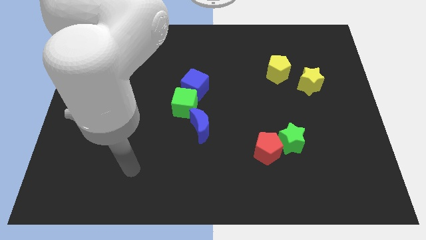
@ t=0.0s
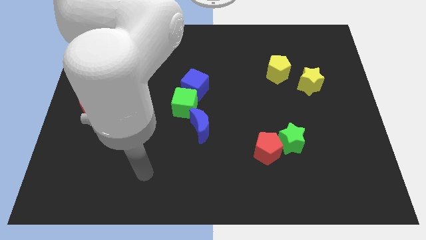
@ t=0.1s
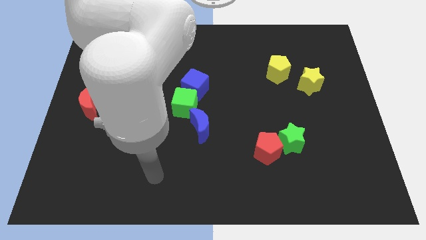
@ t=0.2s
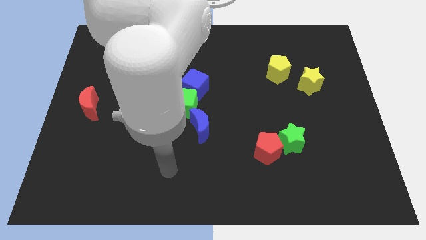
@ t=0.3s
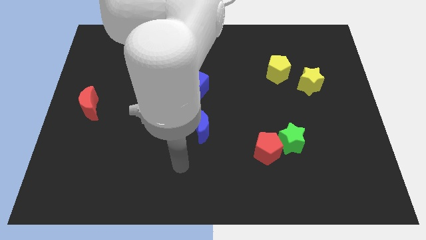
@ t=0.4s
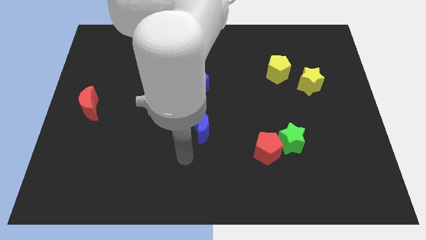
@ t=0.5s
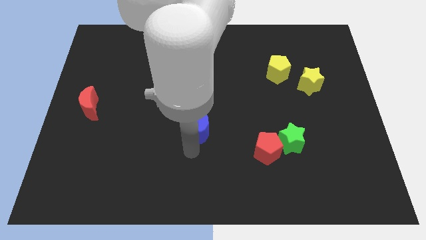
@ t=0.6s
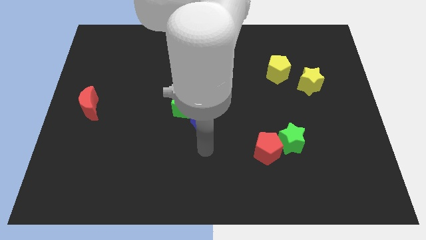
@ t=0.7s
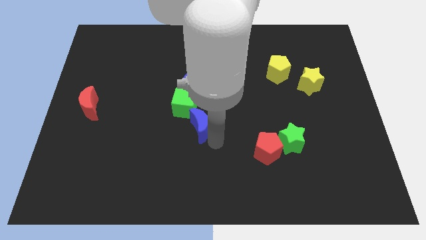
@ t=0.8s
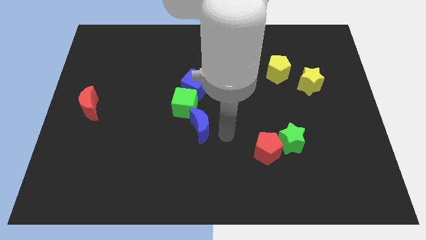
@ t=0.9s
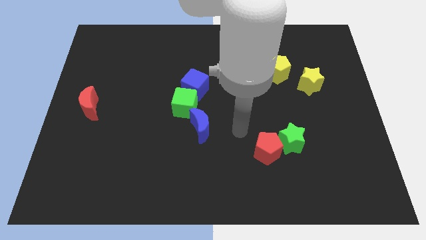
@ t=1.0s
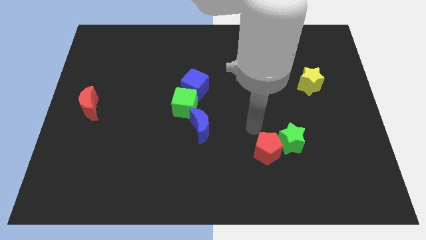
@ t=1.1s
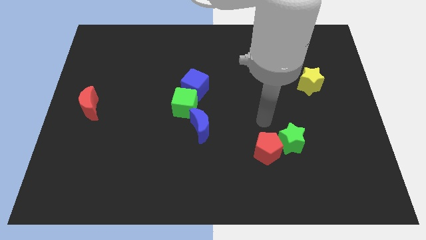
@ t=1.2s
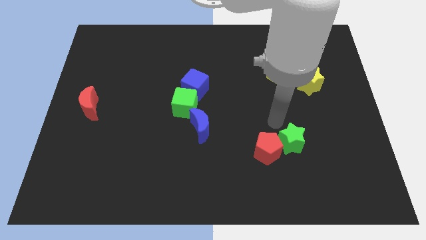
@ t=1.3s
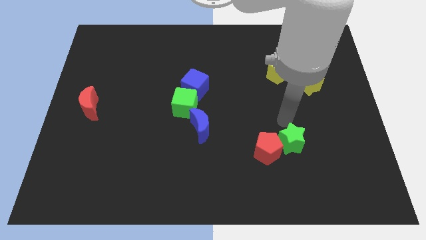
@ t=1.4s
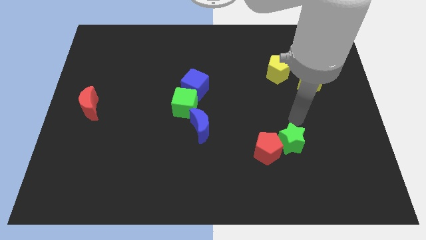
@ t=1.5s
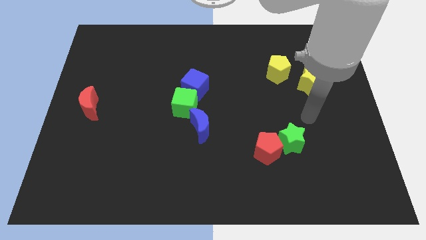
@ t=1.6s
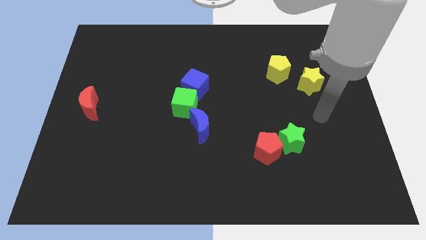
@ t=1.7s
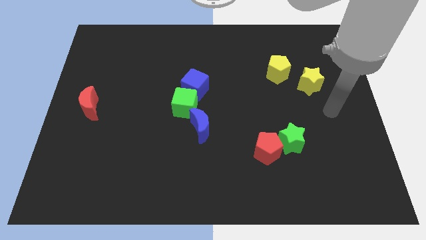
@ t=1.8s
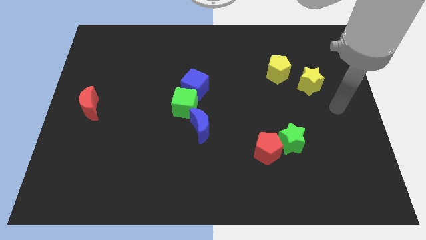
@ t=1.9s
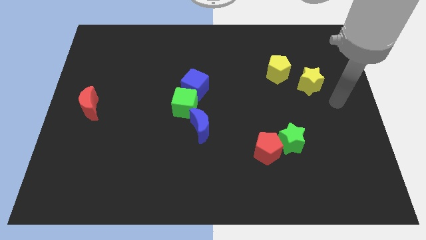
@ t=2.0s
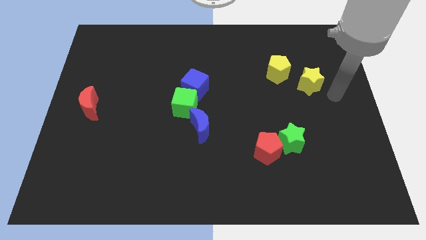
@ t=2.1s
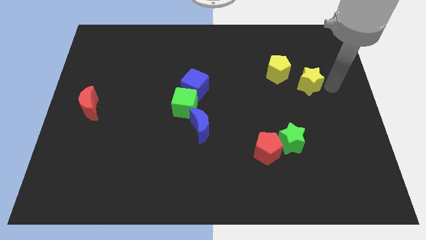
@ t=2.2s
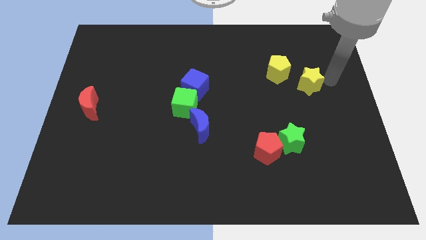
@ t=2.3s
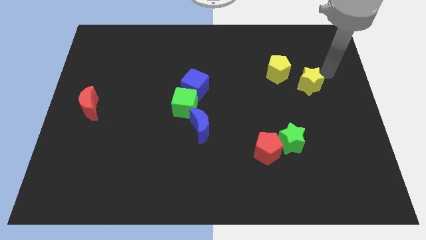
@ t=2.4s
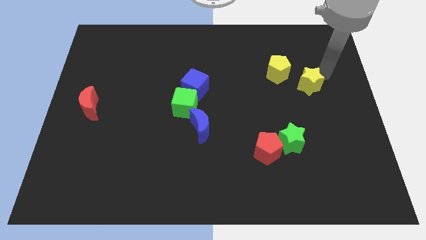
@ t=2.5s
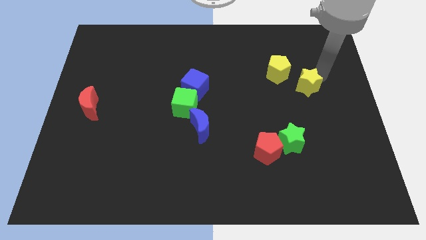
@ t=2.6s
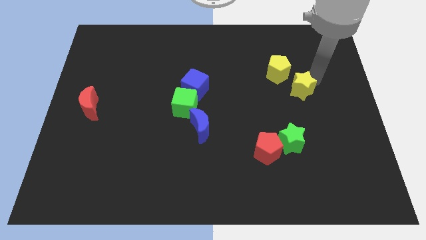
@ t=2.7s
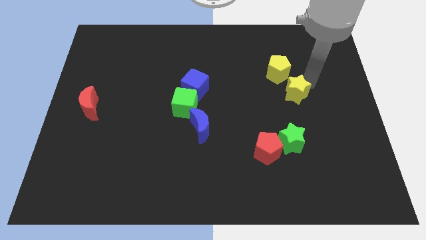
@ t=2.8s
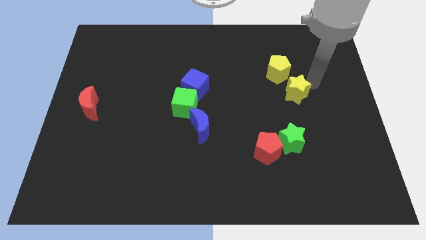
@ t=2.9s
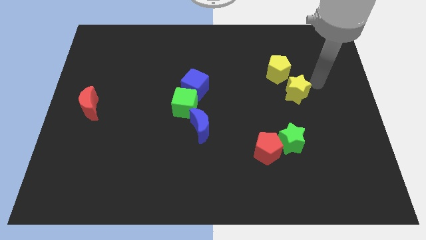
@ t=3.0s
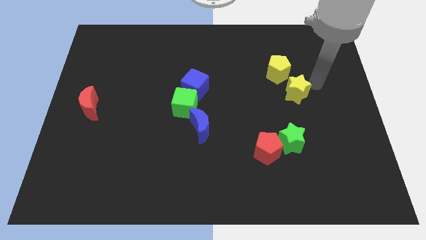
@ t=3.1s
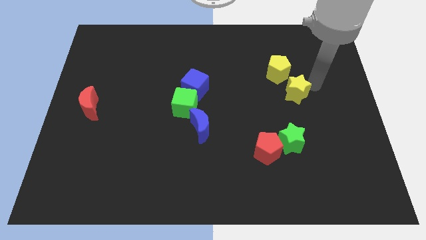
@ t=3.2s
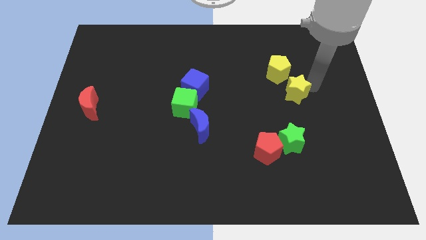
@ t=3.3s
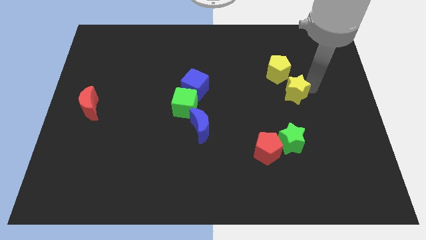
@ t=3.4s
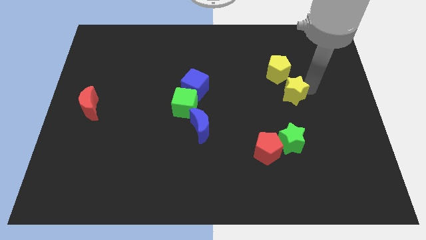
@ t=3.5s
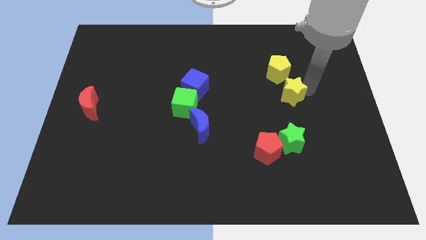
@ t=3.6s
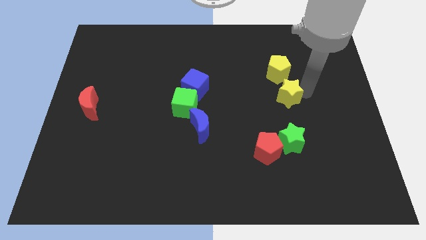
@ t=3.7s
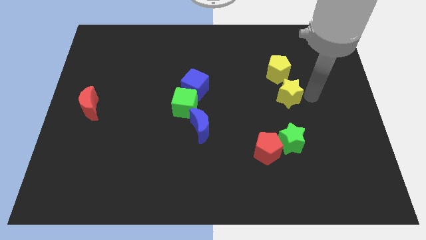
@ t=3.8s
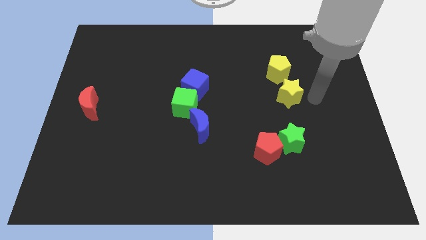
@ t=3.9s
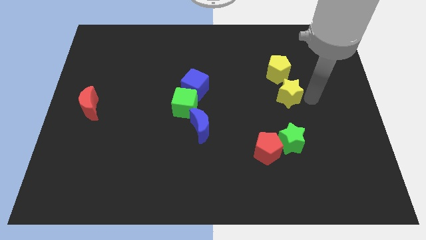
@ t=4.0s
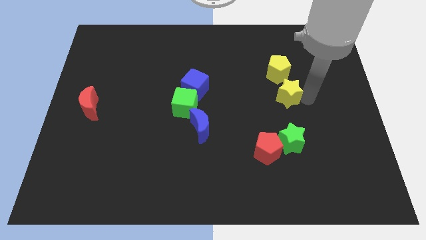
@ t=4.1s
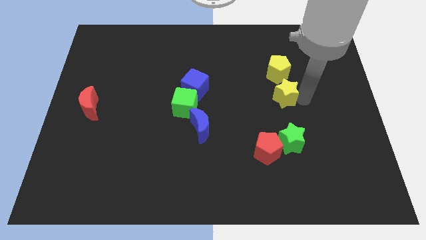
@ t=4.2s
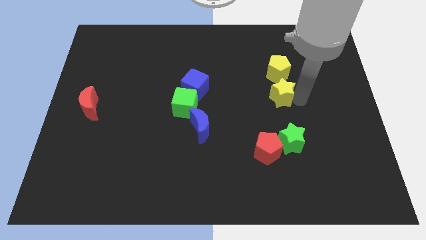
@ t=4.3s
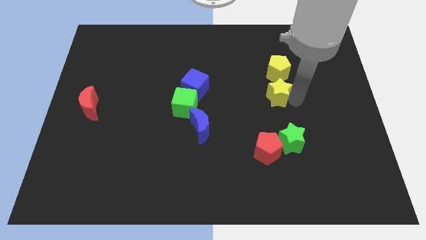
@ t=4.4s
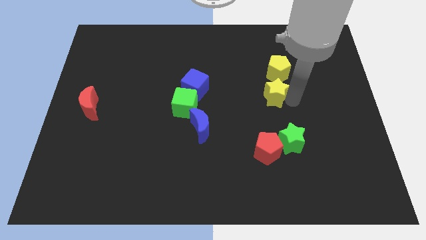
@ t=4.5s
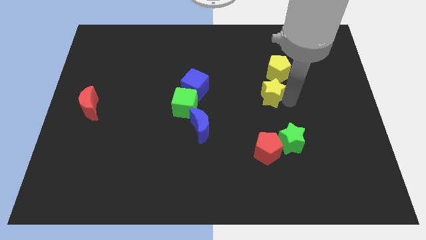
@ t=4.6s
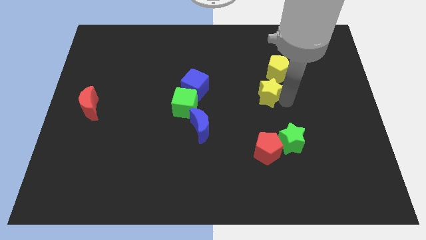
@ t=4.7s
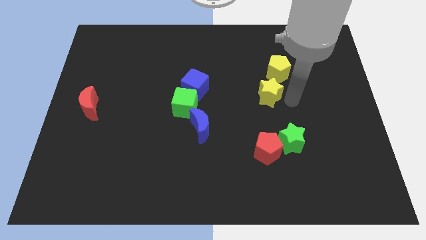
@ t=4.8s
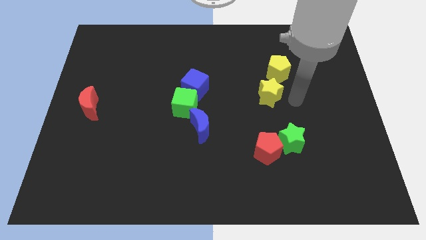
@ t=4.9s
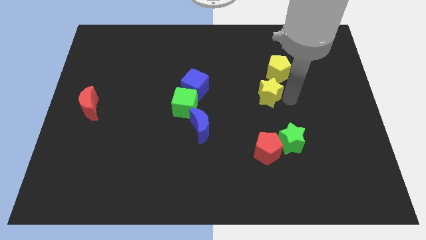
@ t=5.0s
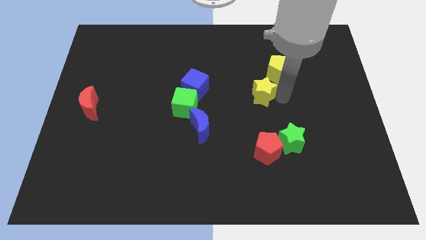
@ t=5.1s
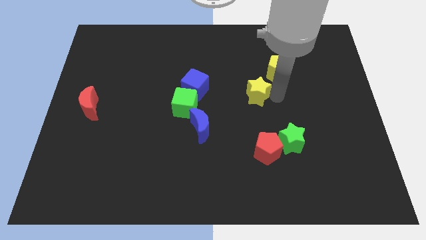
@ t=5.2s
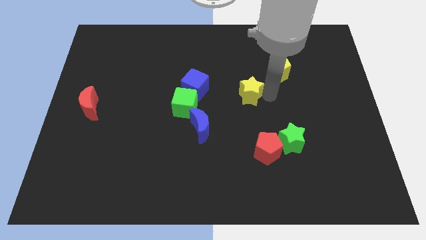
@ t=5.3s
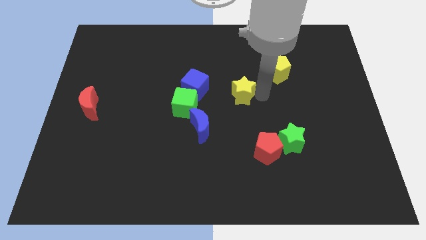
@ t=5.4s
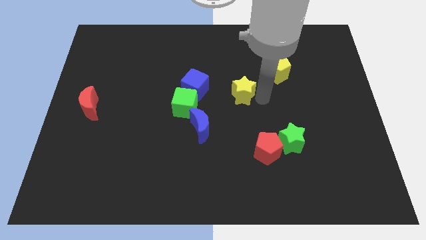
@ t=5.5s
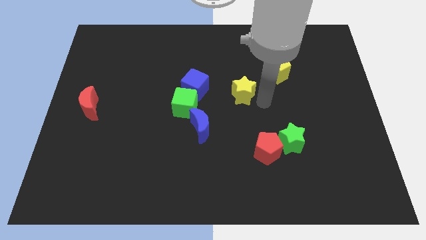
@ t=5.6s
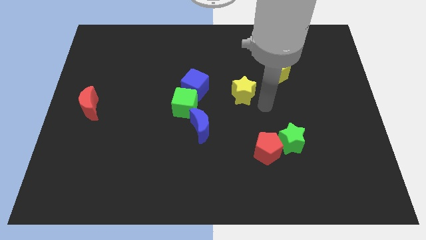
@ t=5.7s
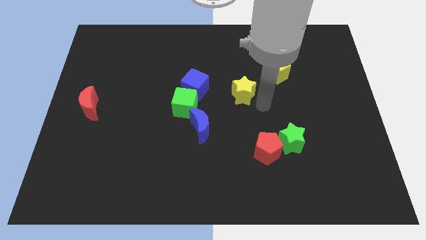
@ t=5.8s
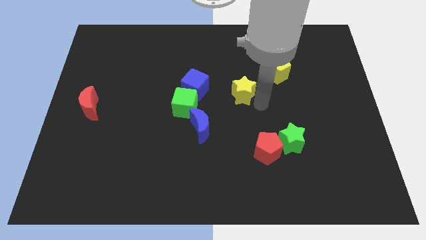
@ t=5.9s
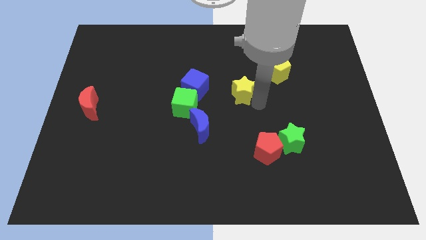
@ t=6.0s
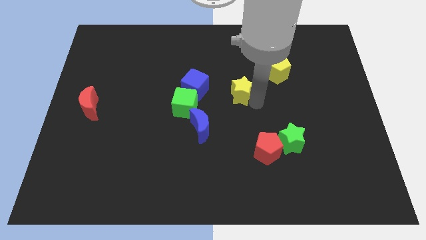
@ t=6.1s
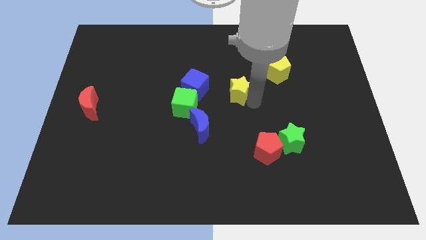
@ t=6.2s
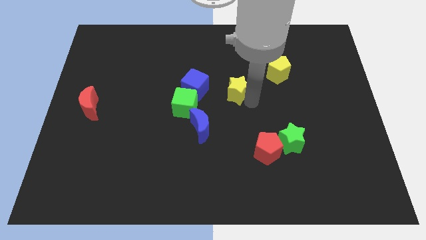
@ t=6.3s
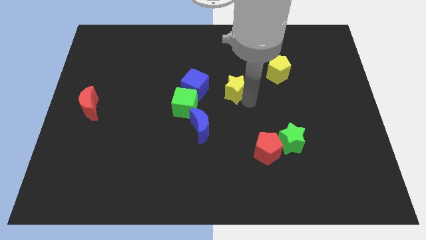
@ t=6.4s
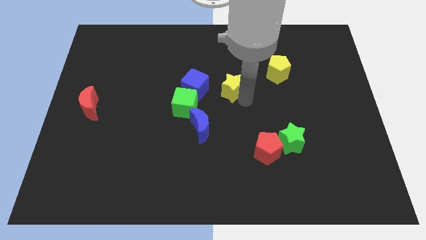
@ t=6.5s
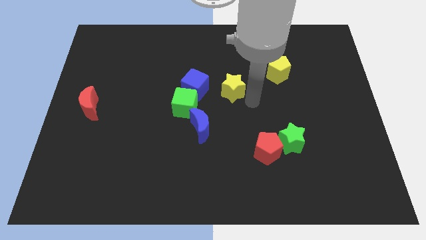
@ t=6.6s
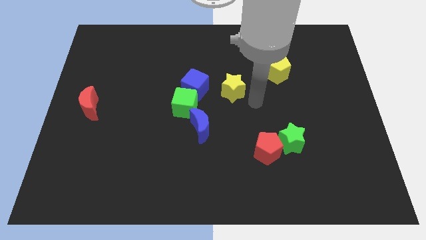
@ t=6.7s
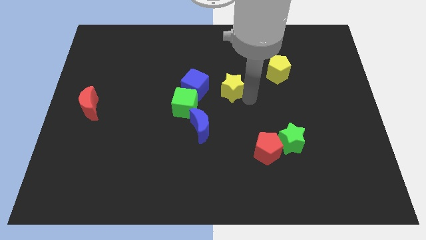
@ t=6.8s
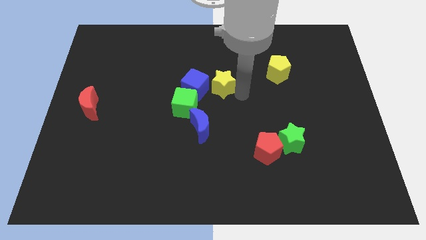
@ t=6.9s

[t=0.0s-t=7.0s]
push the yellow star to the left

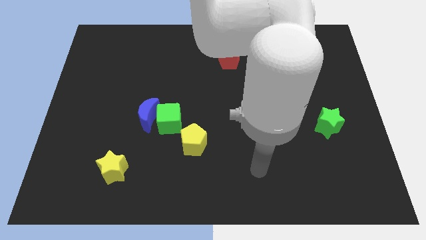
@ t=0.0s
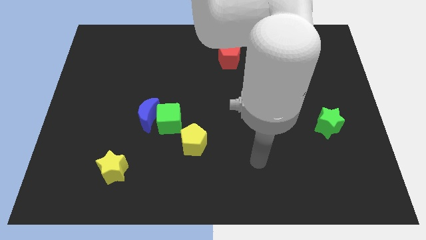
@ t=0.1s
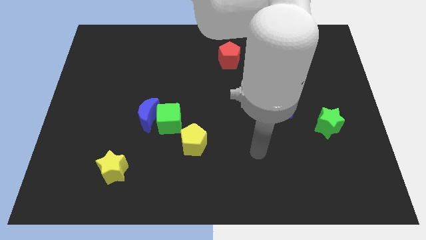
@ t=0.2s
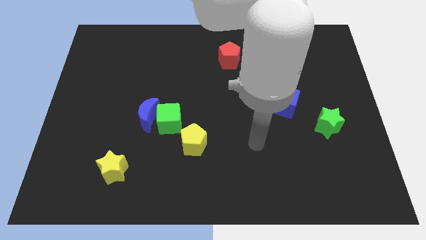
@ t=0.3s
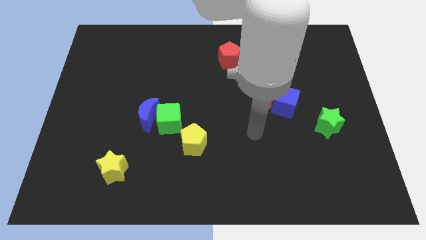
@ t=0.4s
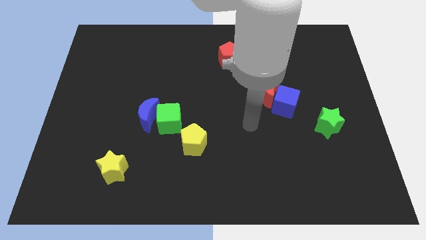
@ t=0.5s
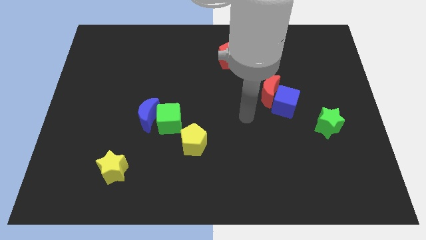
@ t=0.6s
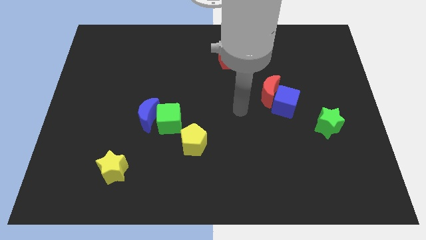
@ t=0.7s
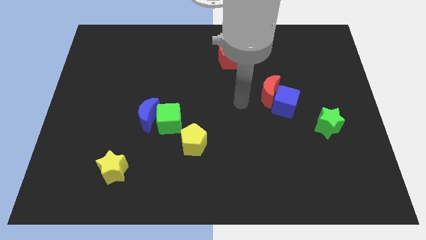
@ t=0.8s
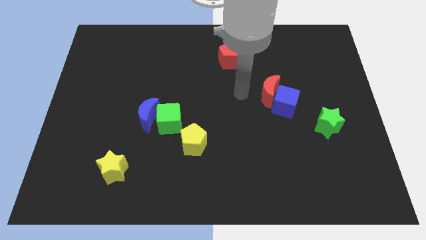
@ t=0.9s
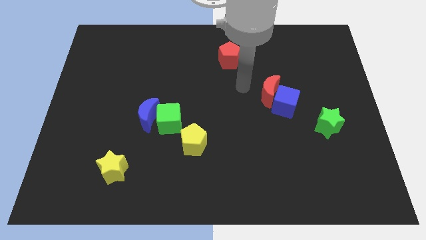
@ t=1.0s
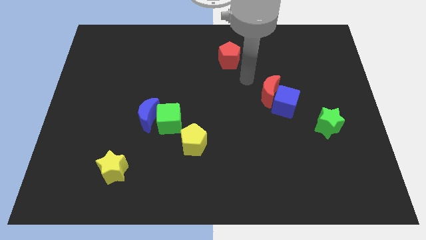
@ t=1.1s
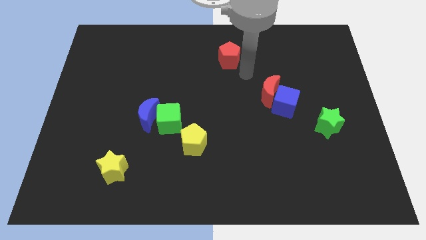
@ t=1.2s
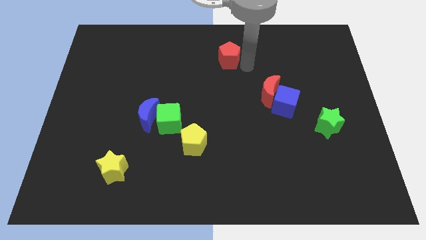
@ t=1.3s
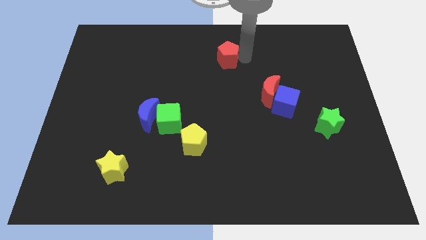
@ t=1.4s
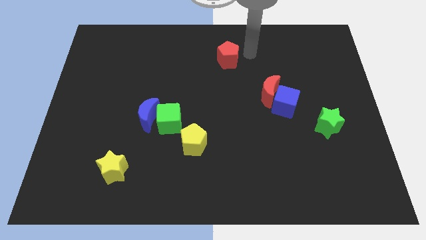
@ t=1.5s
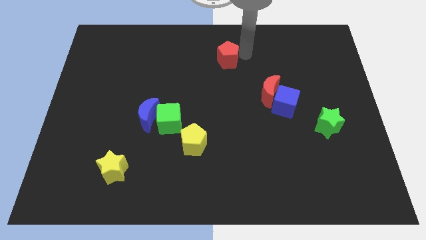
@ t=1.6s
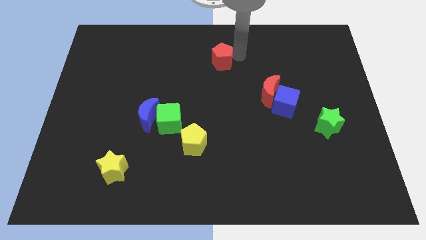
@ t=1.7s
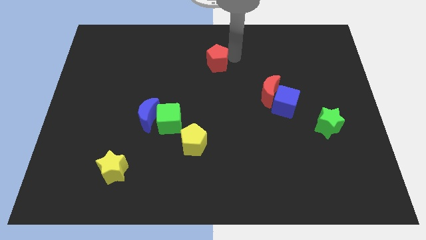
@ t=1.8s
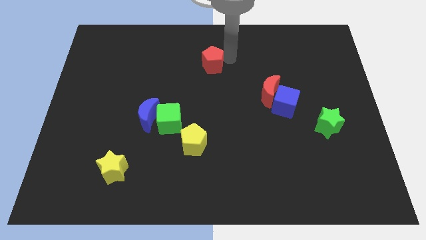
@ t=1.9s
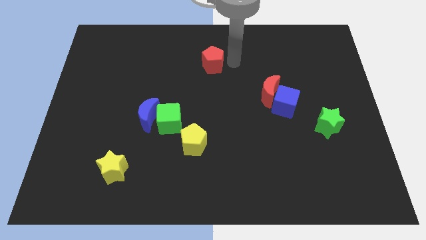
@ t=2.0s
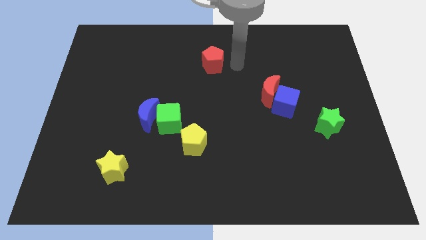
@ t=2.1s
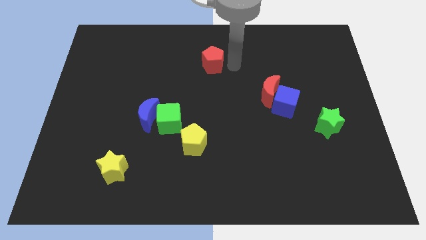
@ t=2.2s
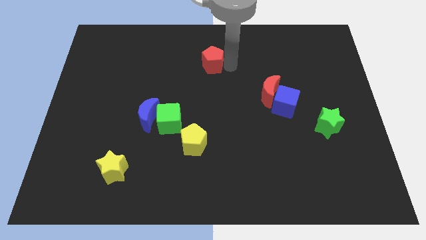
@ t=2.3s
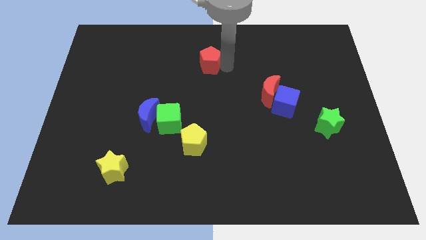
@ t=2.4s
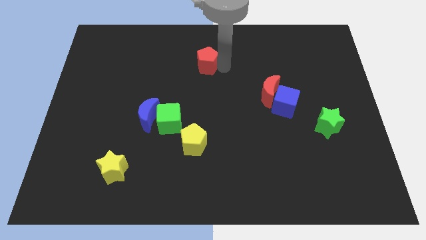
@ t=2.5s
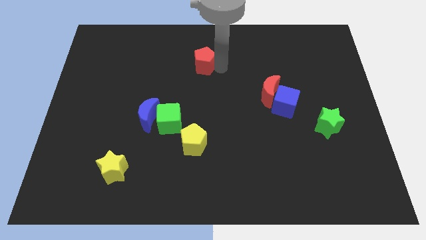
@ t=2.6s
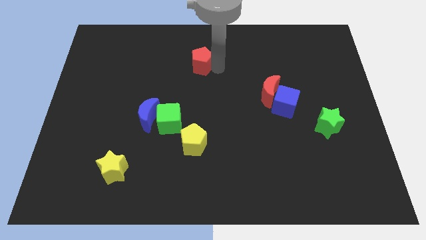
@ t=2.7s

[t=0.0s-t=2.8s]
slightly slide the red pentagon left
